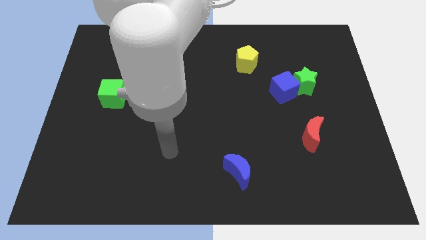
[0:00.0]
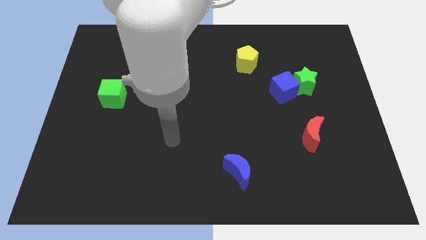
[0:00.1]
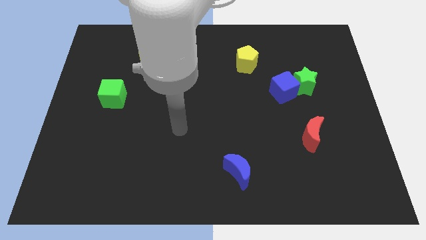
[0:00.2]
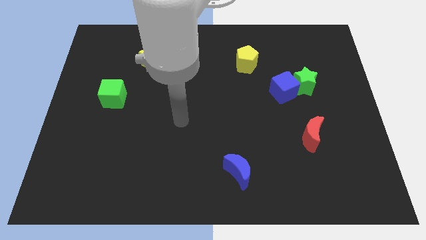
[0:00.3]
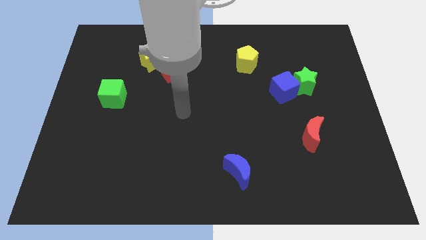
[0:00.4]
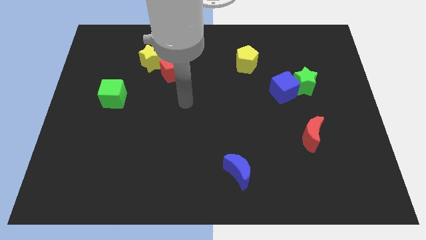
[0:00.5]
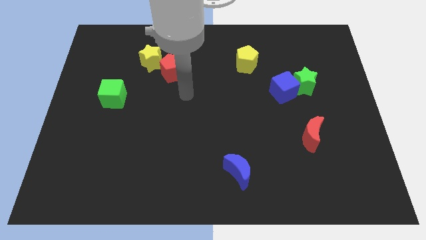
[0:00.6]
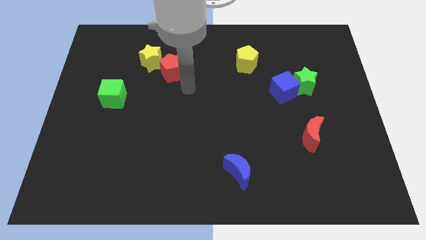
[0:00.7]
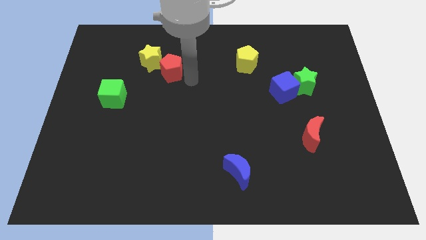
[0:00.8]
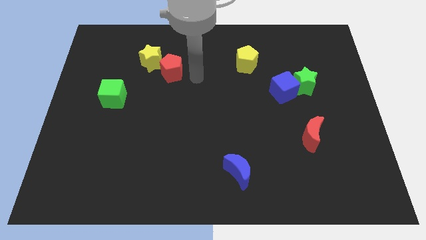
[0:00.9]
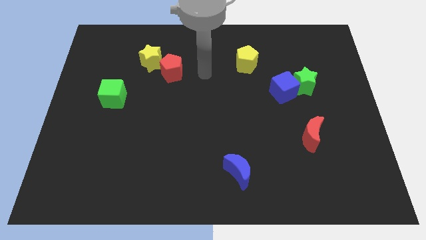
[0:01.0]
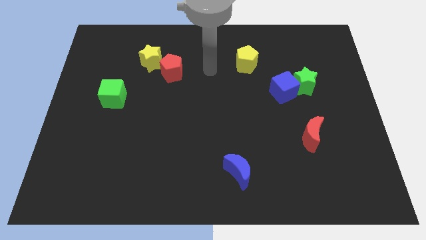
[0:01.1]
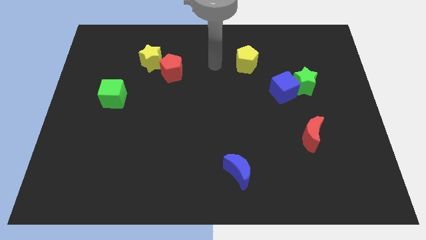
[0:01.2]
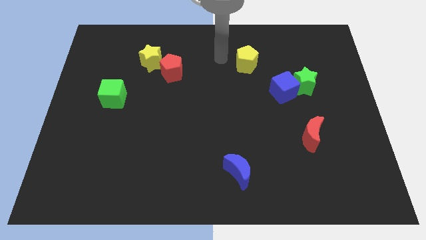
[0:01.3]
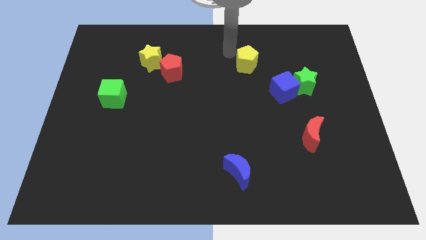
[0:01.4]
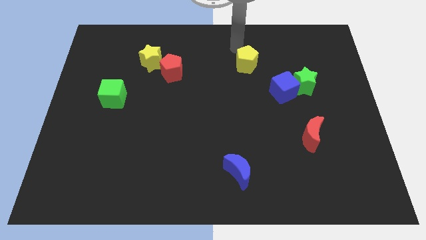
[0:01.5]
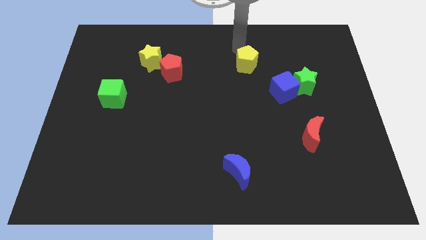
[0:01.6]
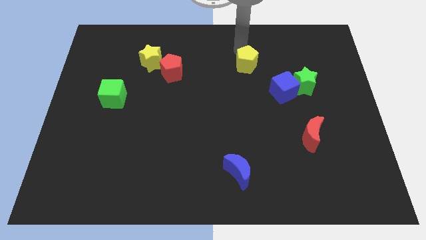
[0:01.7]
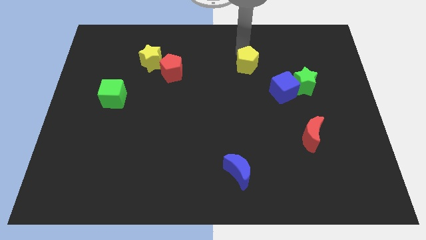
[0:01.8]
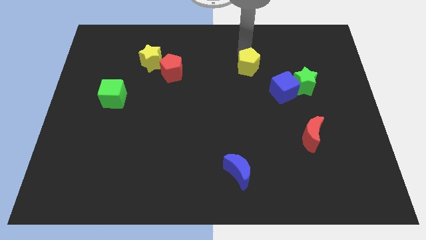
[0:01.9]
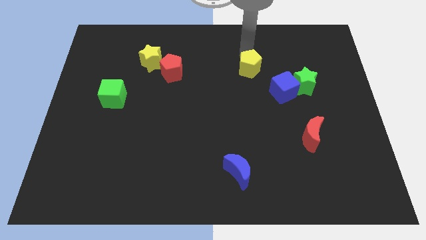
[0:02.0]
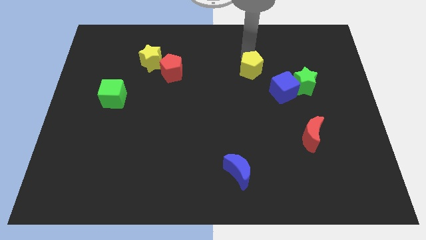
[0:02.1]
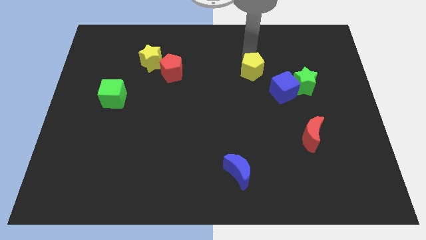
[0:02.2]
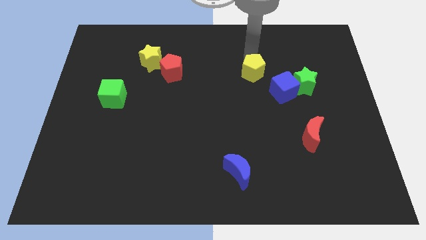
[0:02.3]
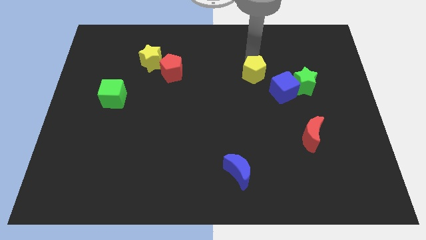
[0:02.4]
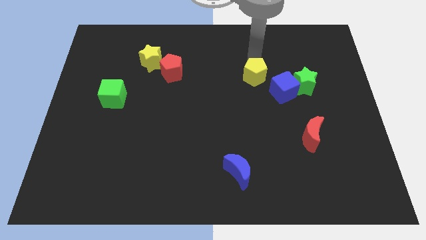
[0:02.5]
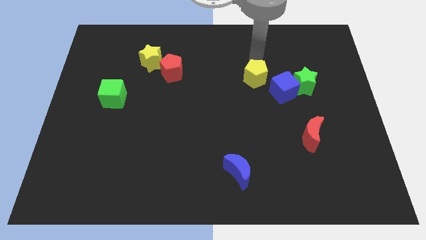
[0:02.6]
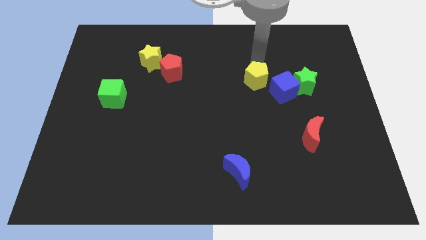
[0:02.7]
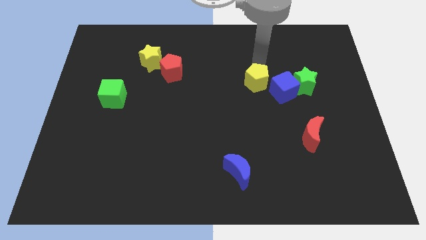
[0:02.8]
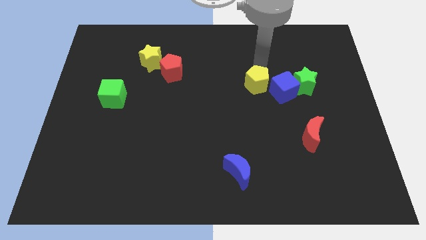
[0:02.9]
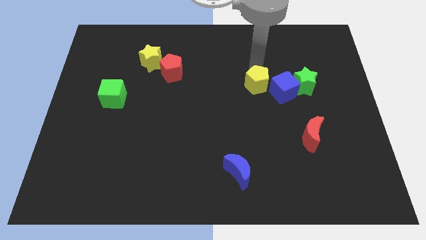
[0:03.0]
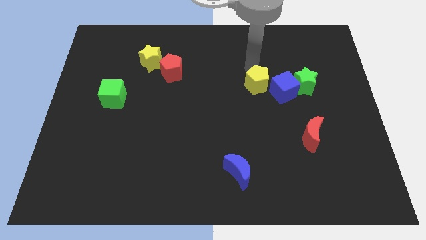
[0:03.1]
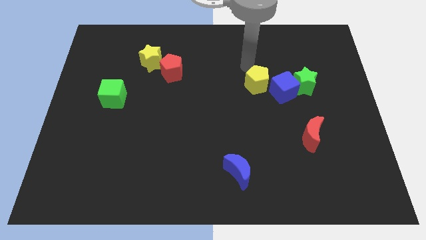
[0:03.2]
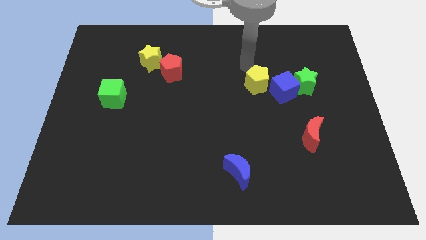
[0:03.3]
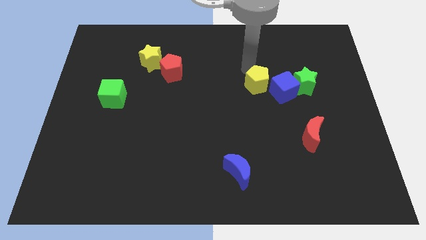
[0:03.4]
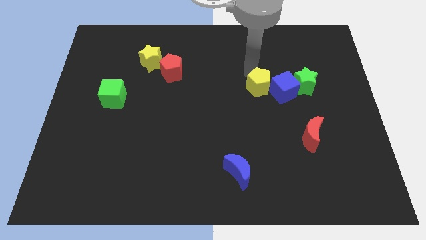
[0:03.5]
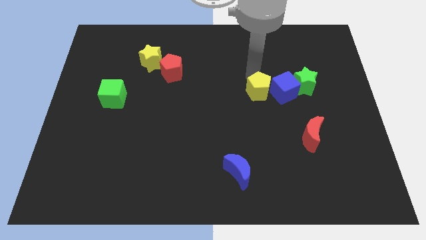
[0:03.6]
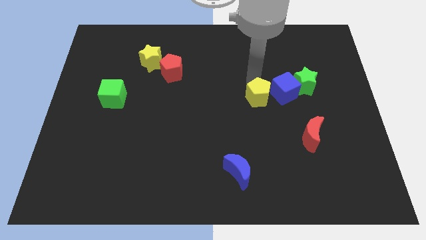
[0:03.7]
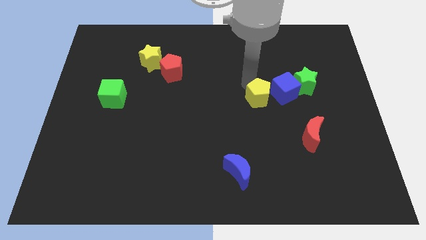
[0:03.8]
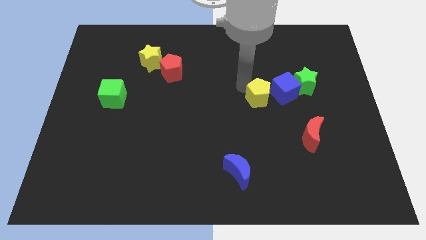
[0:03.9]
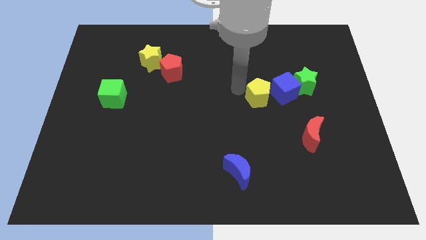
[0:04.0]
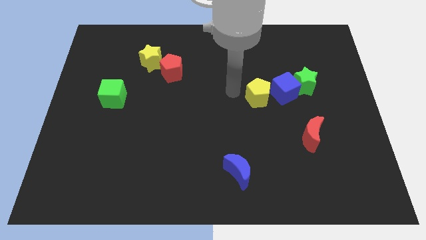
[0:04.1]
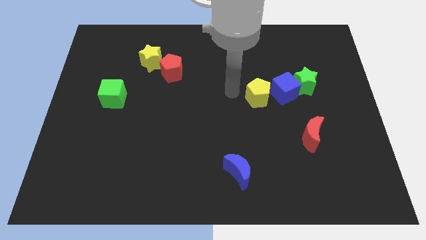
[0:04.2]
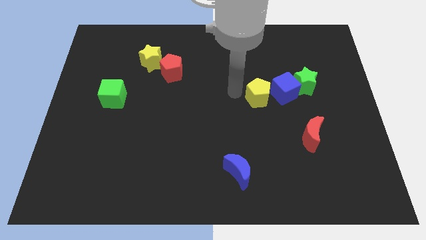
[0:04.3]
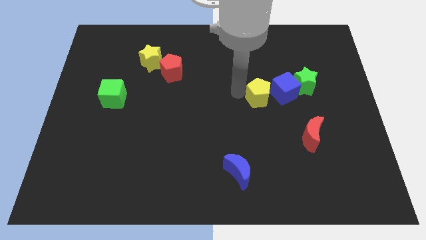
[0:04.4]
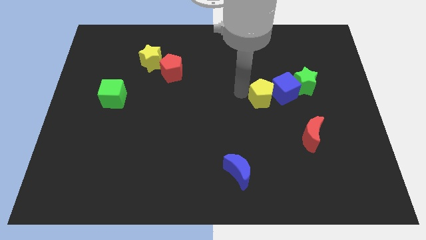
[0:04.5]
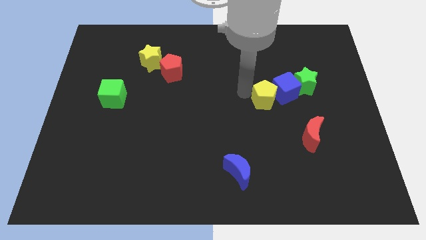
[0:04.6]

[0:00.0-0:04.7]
put the yellow pentagon diagonally down and to the left of the green star

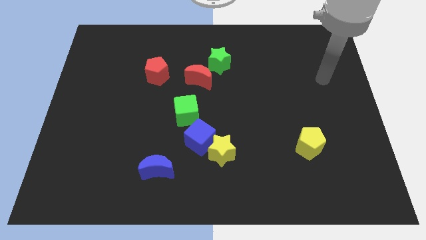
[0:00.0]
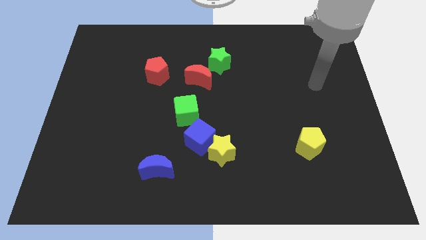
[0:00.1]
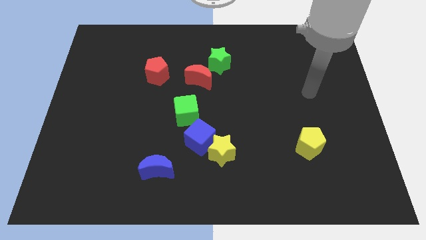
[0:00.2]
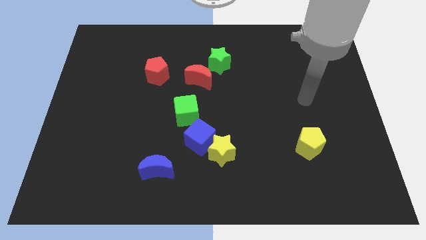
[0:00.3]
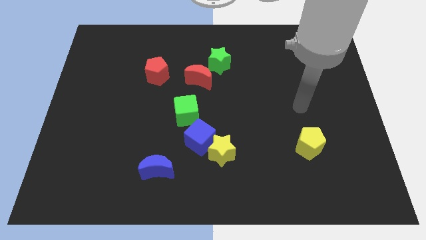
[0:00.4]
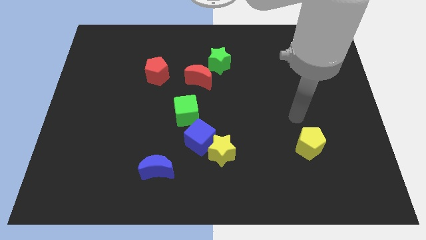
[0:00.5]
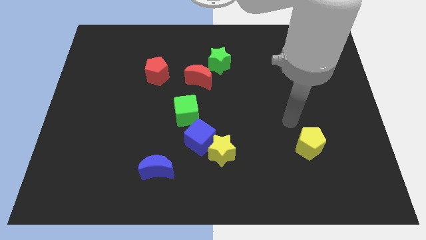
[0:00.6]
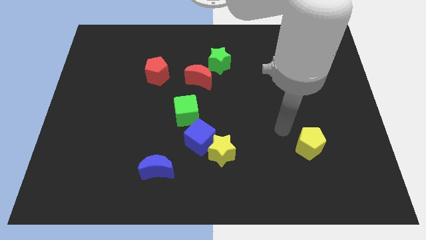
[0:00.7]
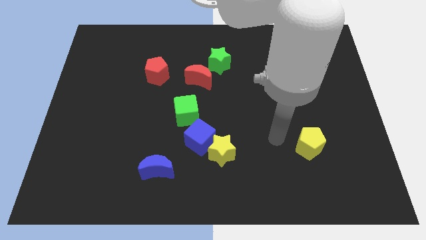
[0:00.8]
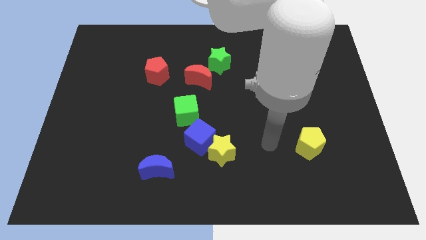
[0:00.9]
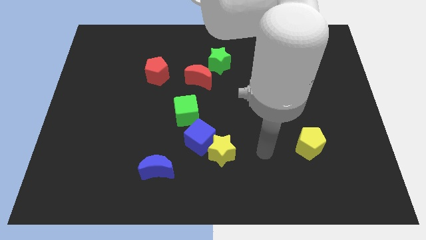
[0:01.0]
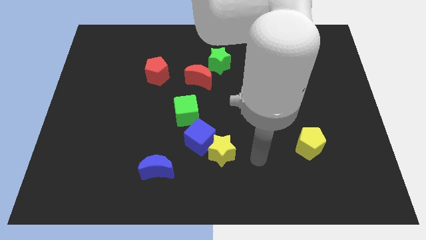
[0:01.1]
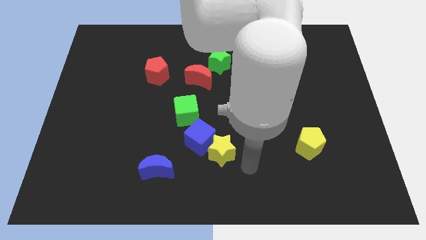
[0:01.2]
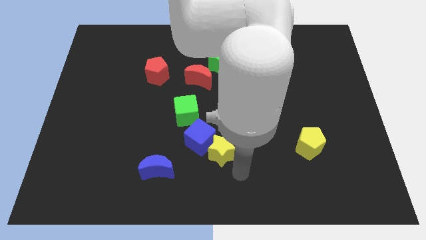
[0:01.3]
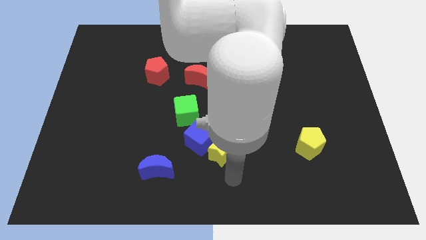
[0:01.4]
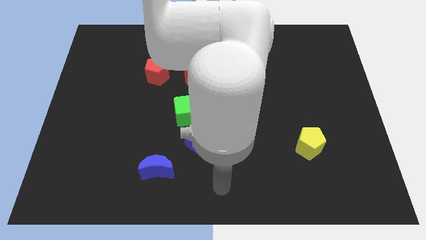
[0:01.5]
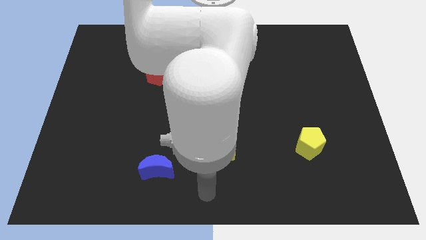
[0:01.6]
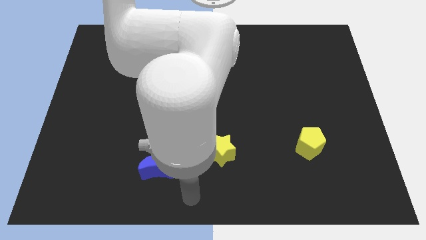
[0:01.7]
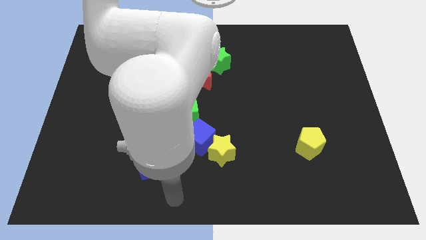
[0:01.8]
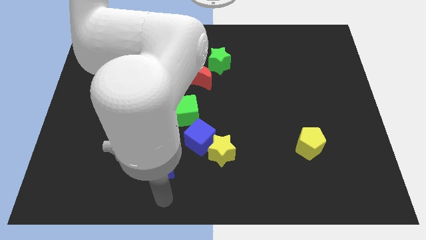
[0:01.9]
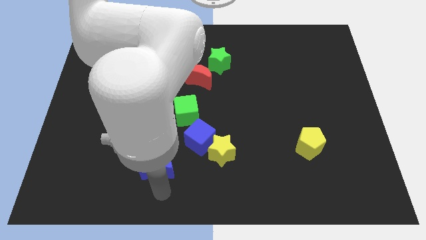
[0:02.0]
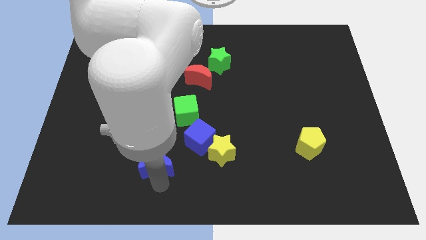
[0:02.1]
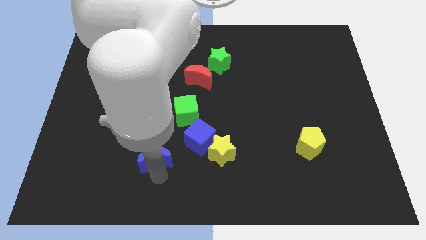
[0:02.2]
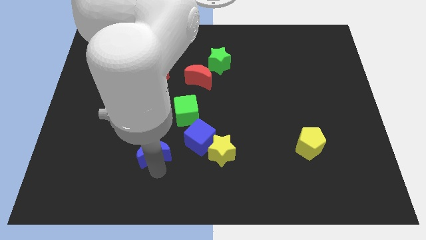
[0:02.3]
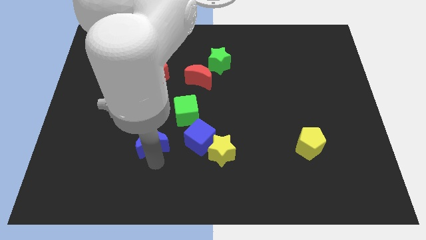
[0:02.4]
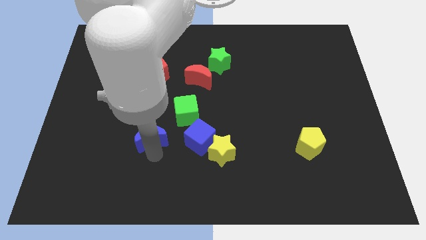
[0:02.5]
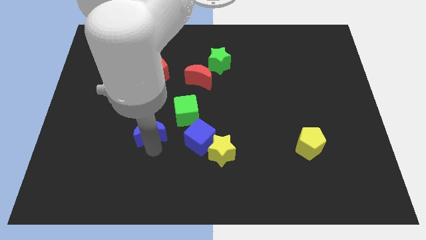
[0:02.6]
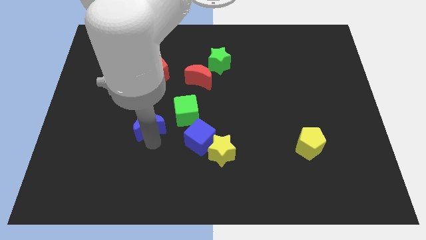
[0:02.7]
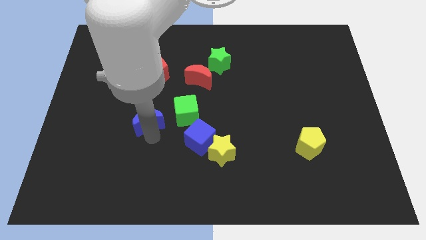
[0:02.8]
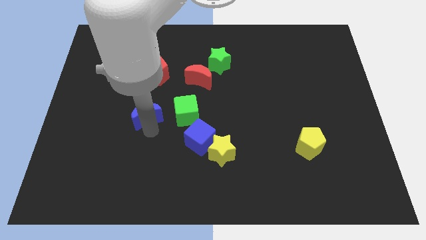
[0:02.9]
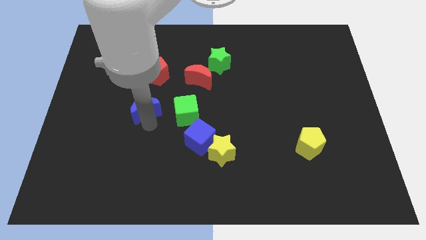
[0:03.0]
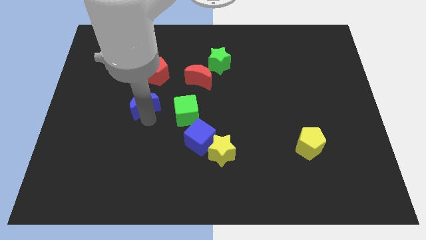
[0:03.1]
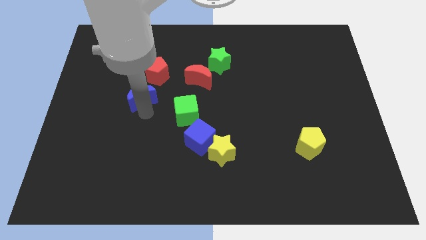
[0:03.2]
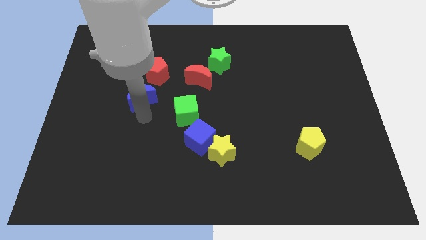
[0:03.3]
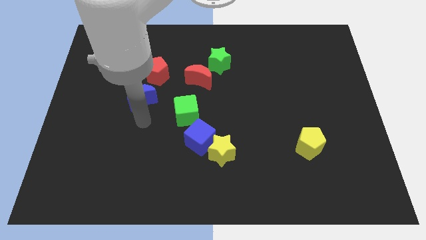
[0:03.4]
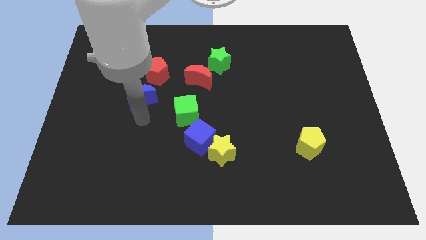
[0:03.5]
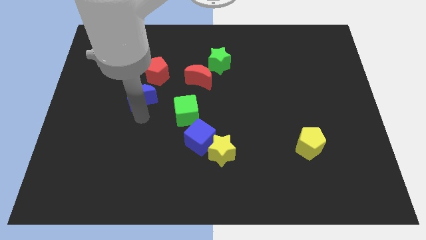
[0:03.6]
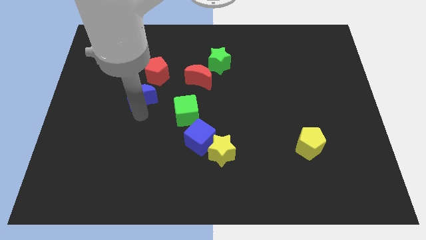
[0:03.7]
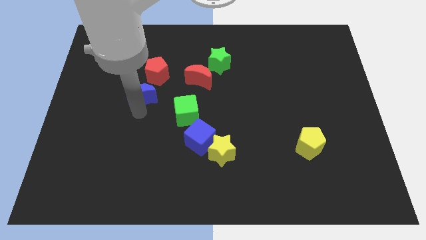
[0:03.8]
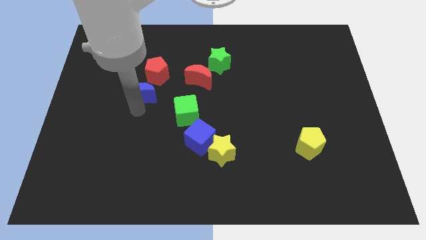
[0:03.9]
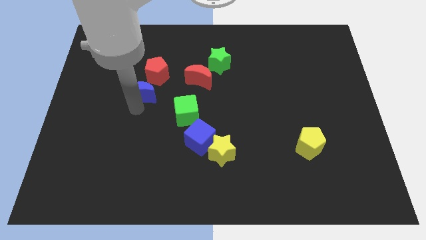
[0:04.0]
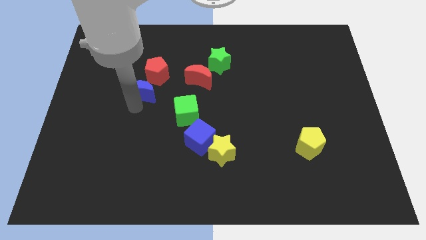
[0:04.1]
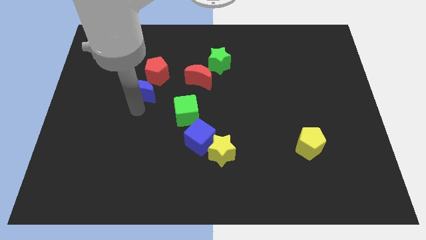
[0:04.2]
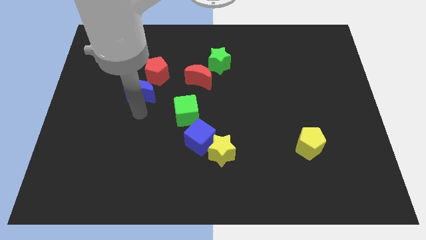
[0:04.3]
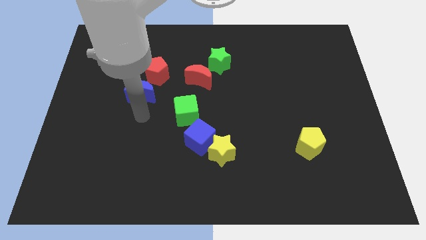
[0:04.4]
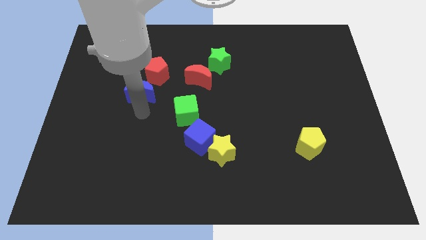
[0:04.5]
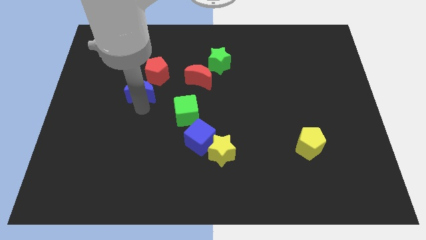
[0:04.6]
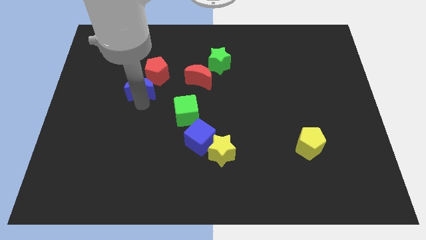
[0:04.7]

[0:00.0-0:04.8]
move the blue moon to the left of the red moon
